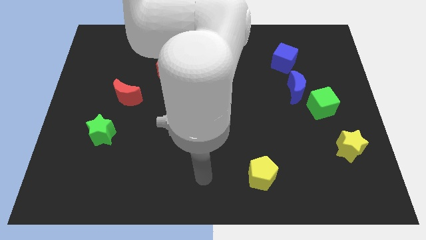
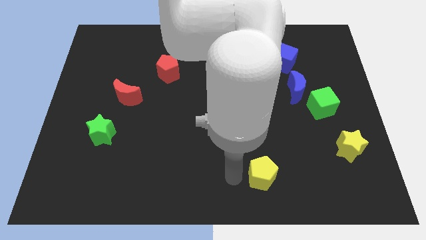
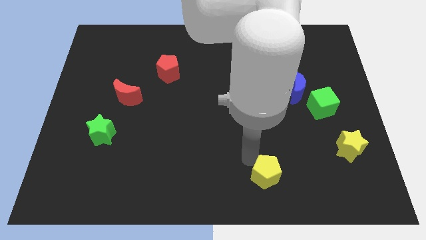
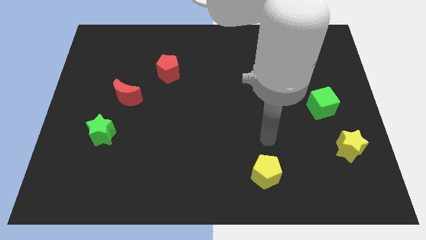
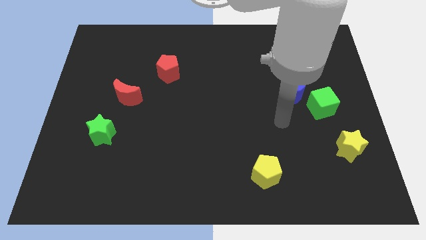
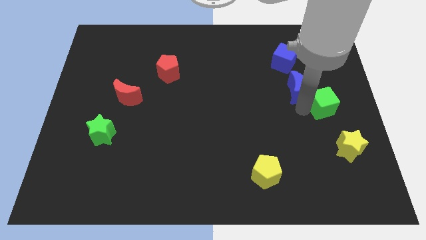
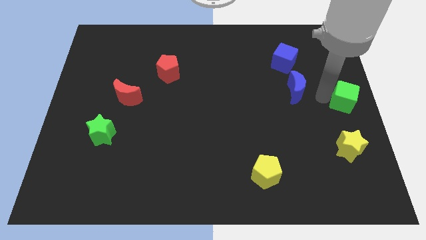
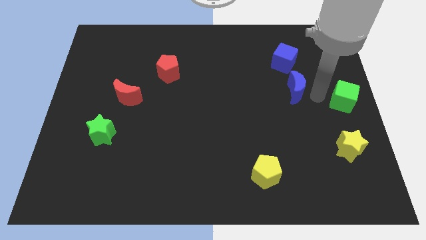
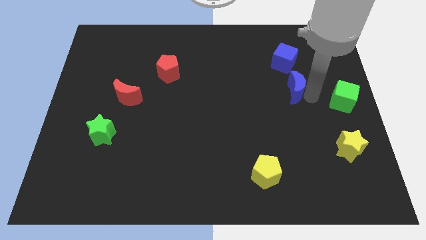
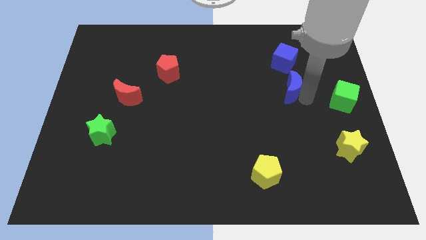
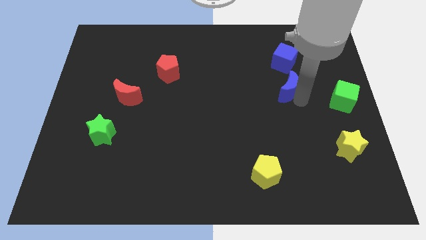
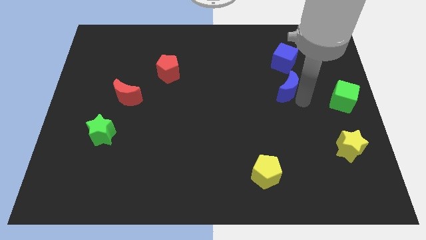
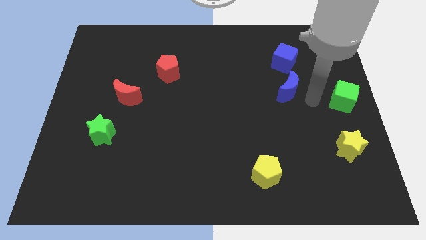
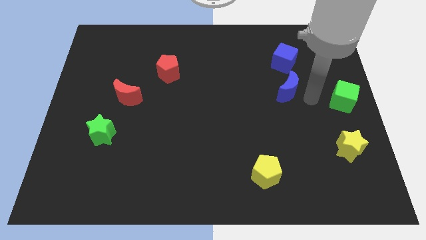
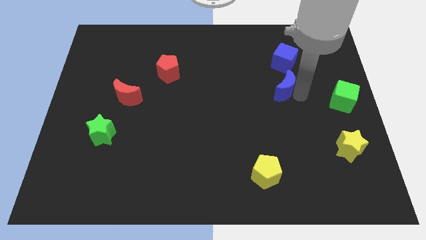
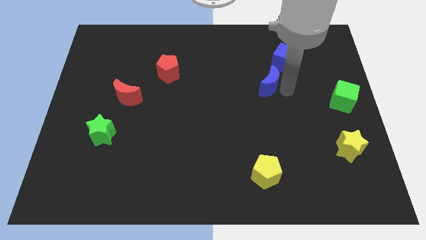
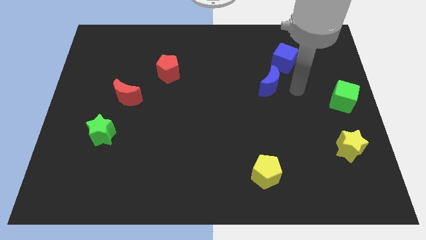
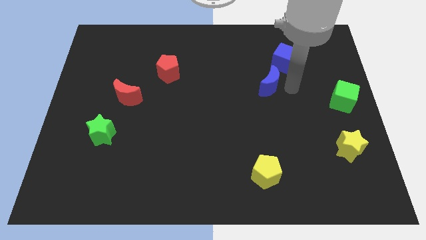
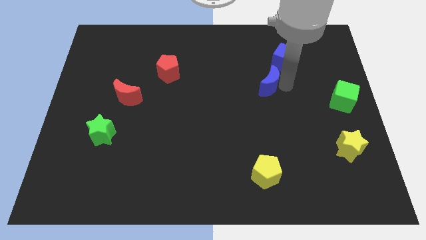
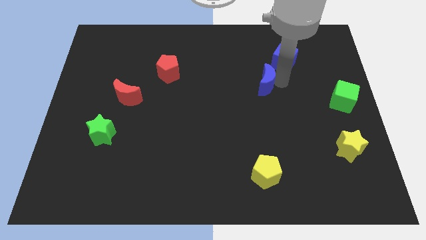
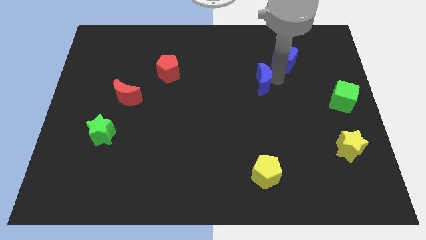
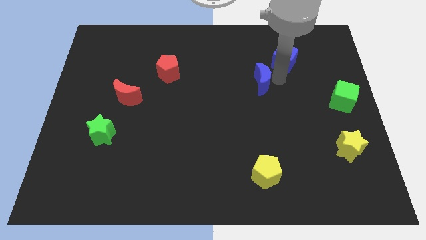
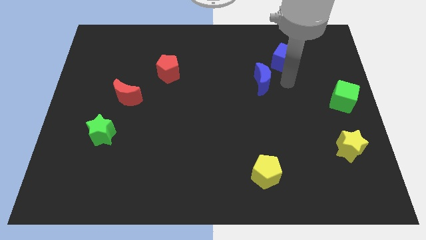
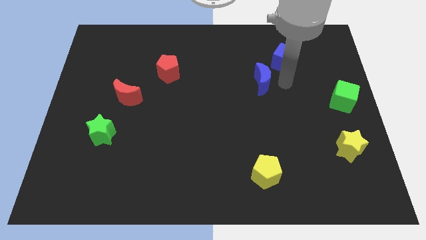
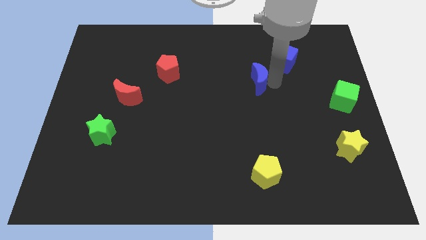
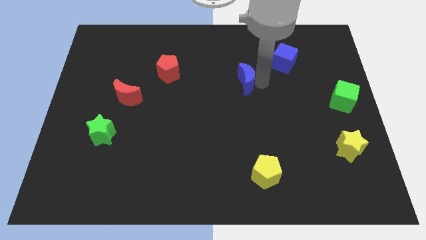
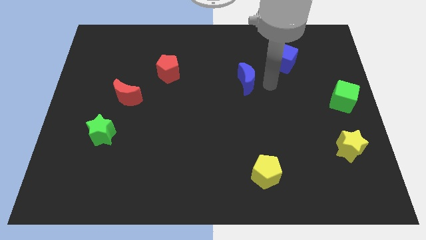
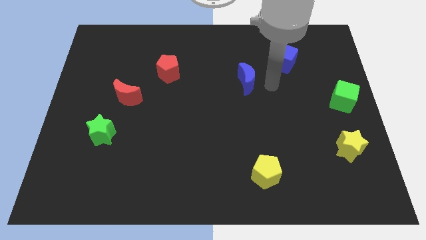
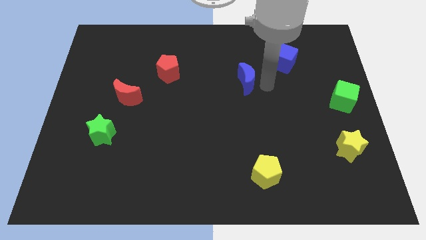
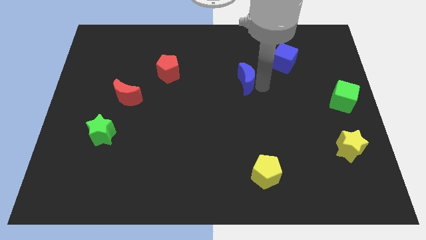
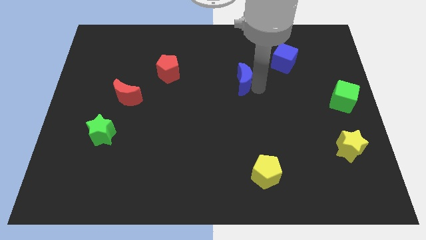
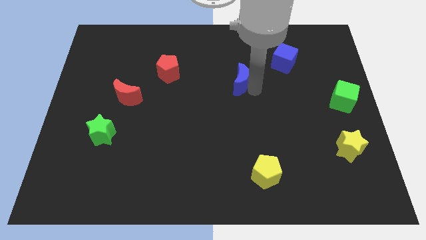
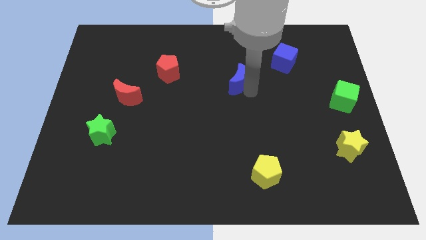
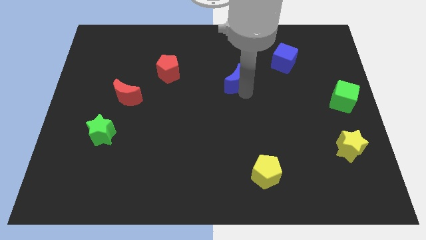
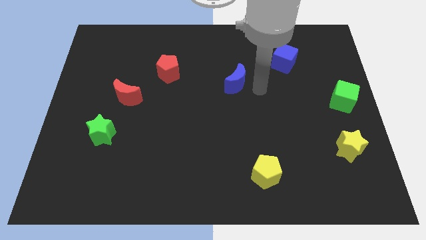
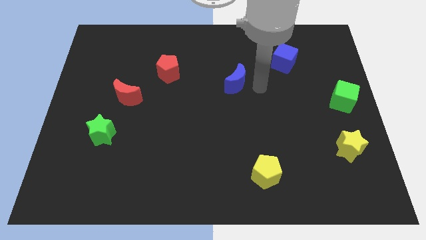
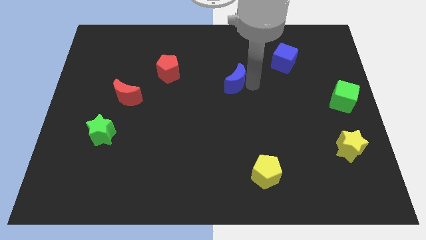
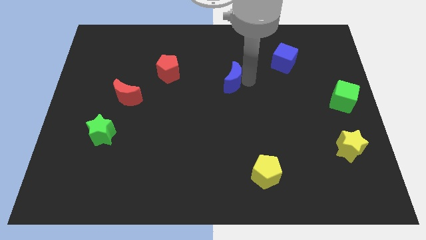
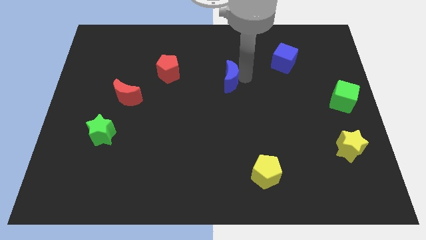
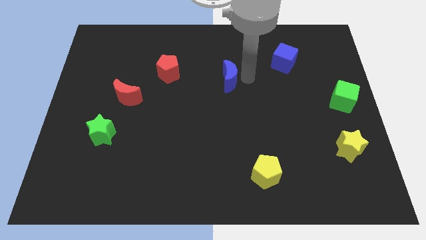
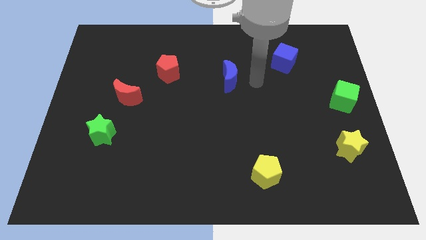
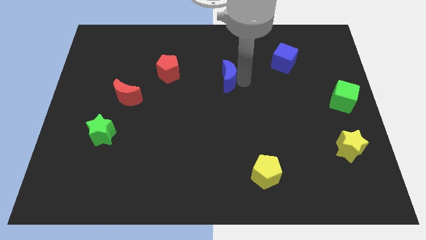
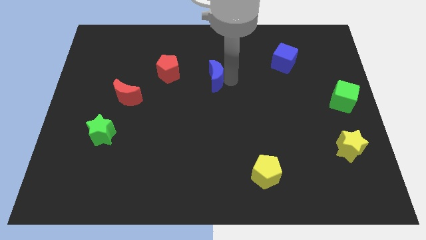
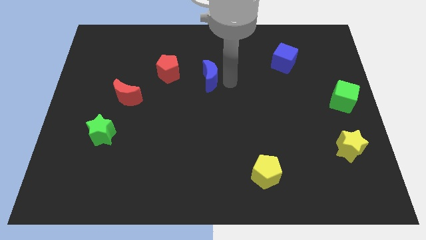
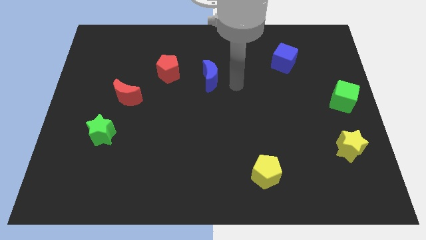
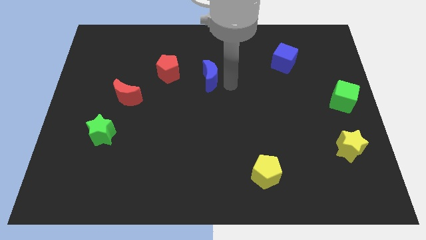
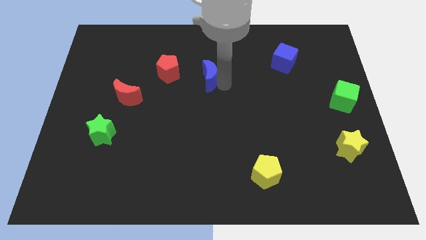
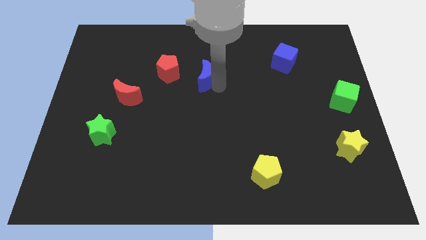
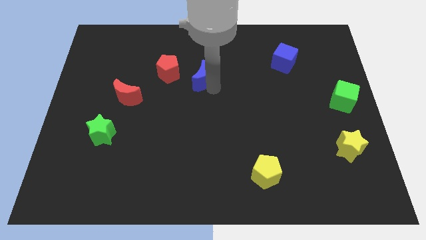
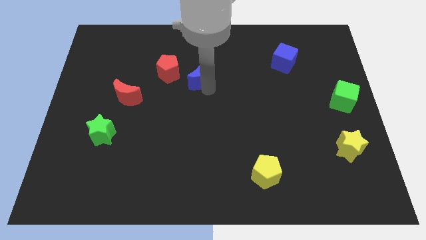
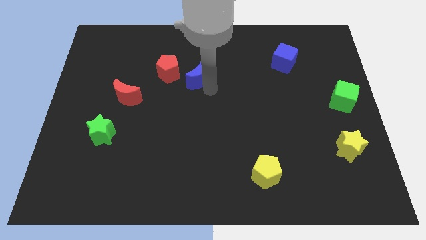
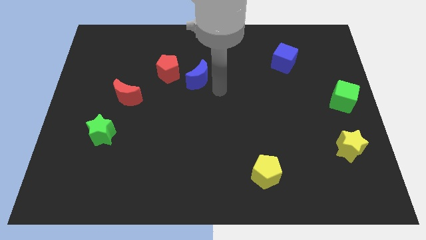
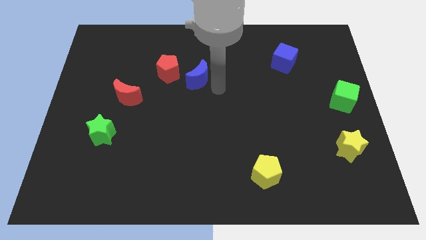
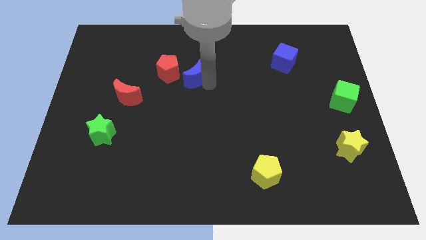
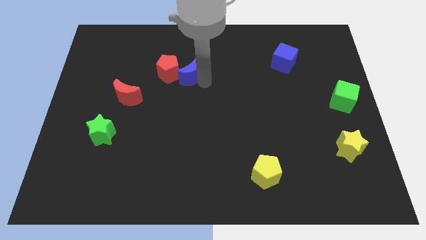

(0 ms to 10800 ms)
slide the blue moon next to the red pentagon

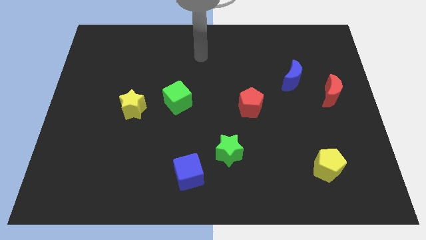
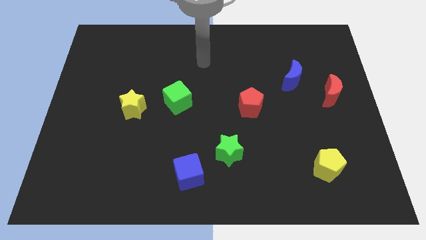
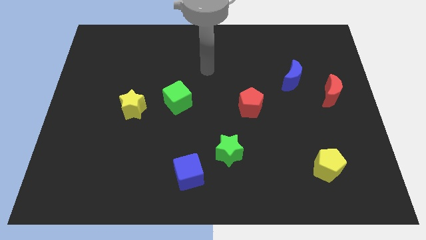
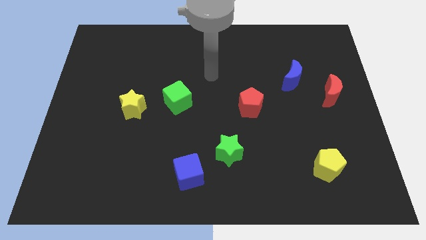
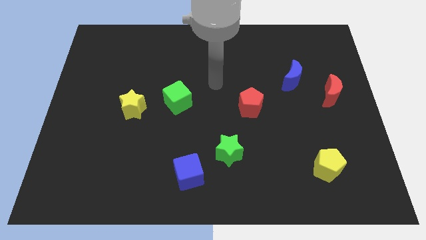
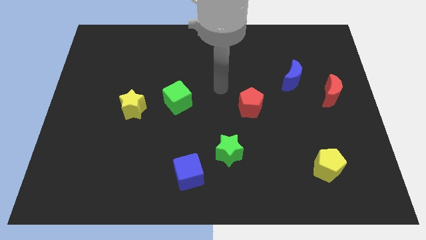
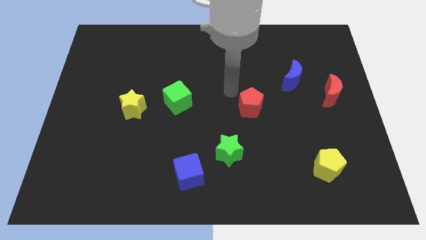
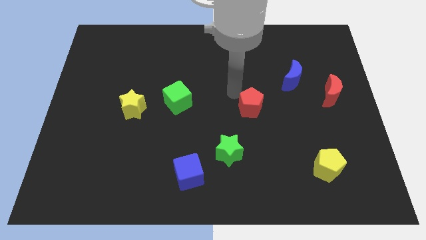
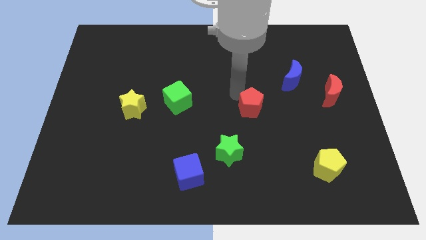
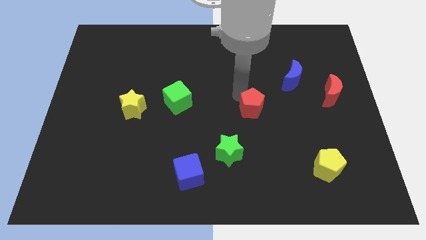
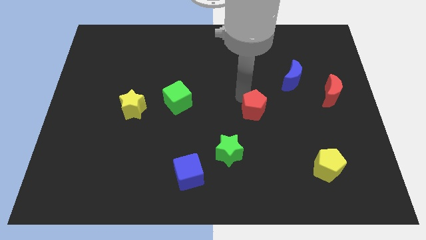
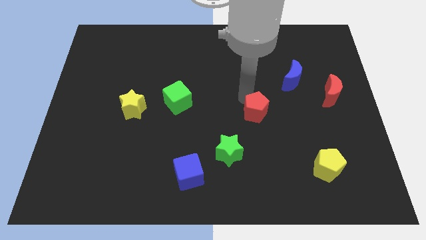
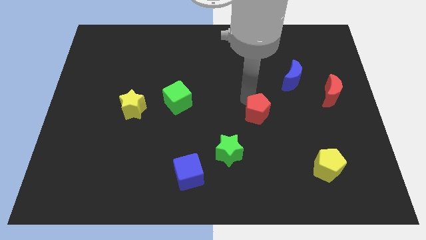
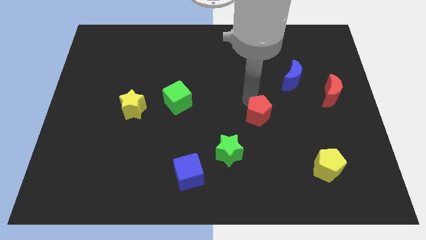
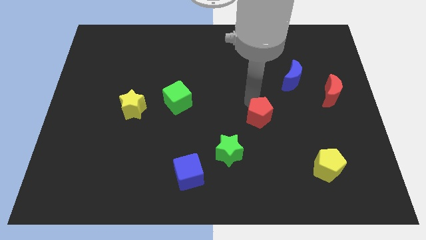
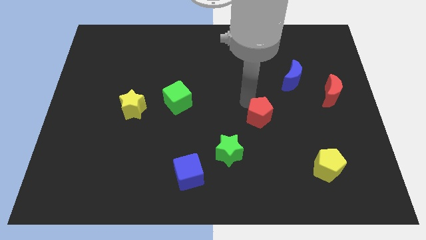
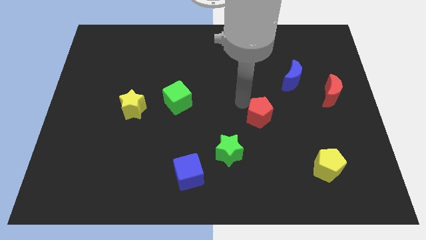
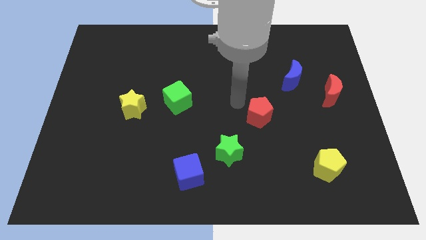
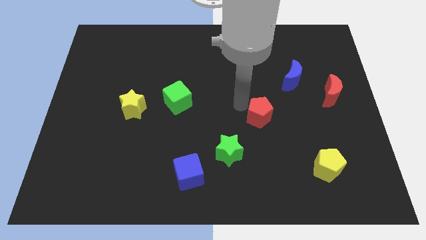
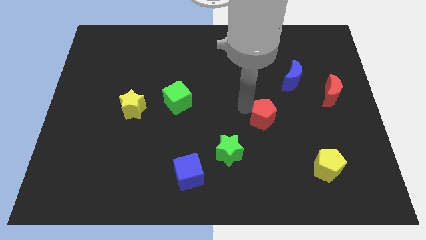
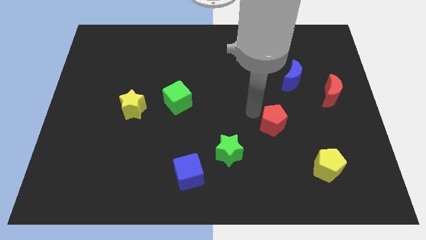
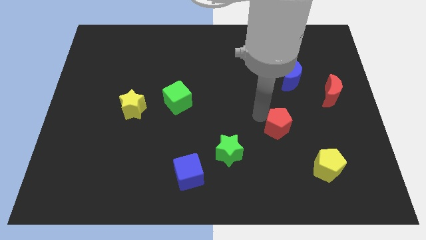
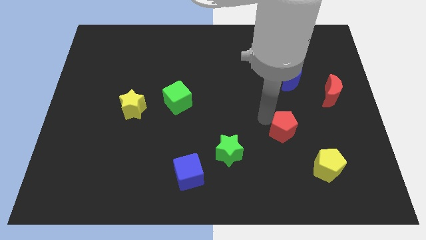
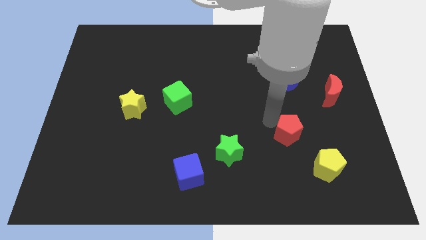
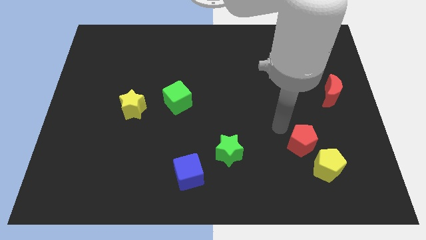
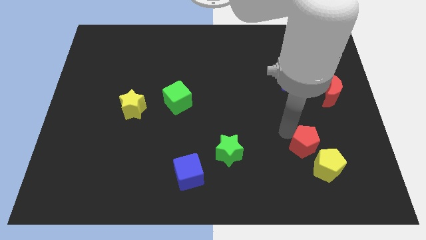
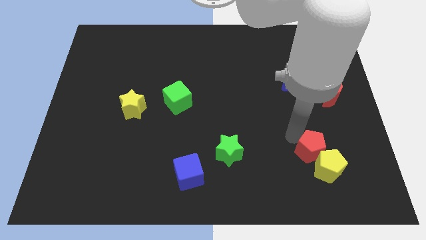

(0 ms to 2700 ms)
put the red pentagon to the yellow pentagon

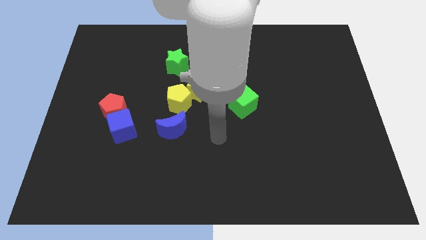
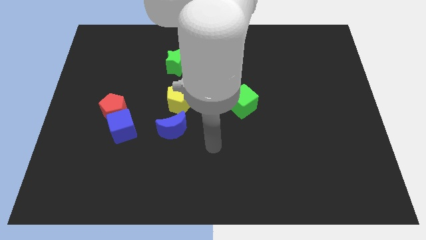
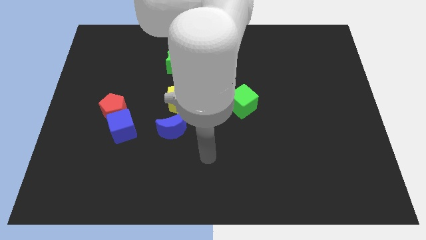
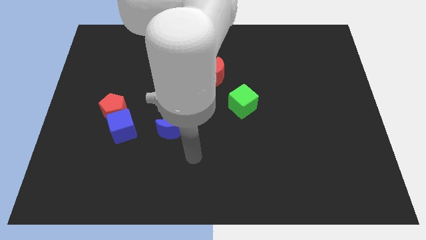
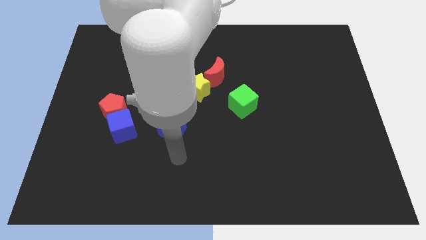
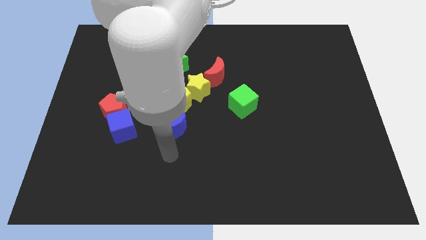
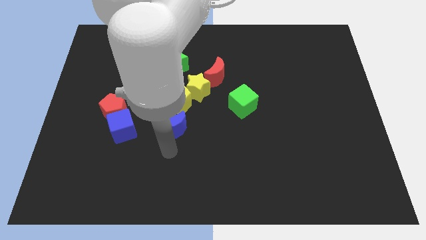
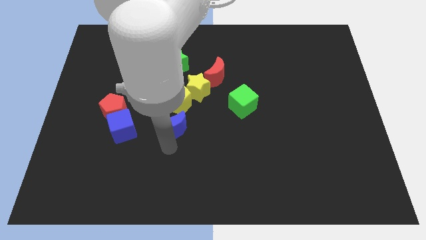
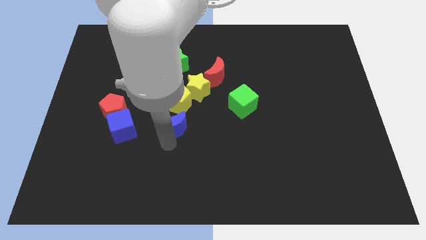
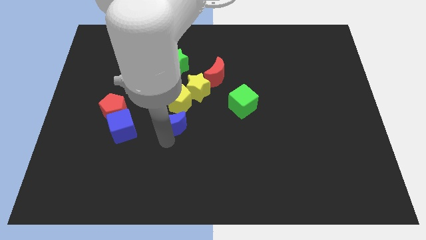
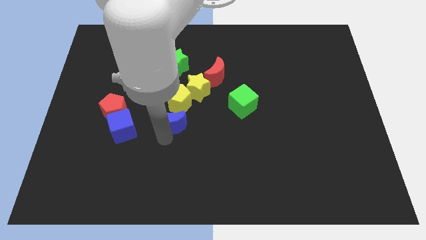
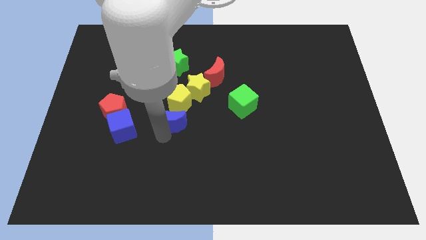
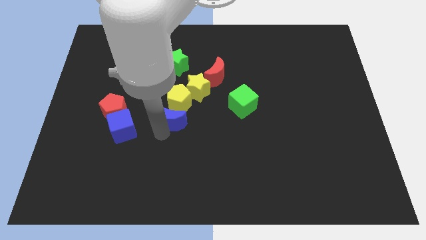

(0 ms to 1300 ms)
put the blue moon close to the yellow pentagon
